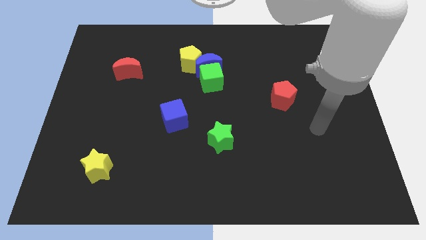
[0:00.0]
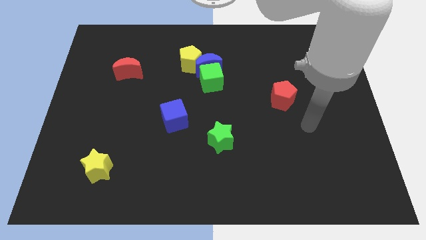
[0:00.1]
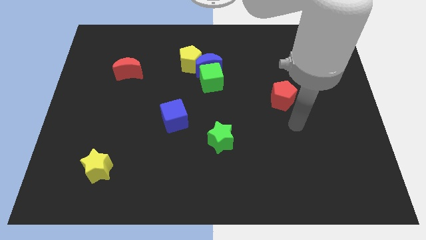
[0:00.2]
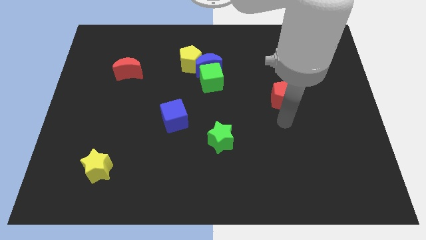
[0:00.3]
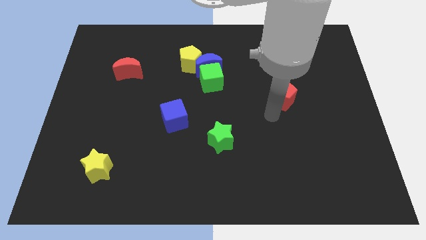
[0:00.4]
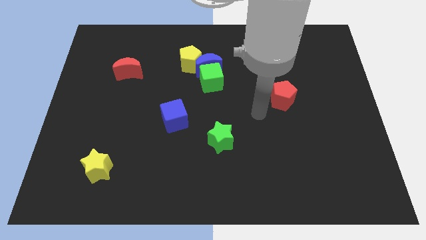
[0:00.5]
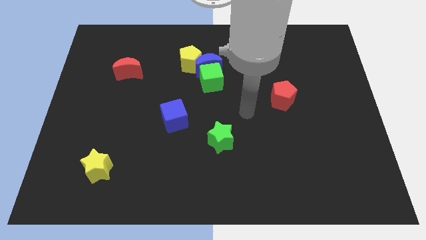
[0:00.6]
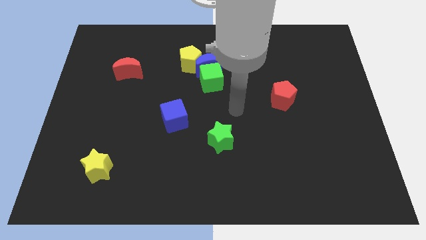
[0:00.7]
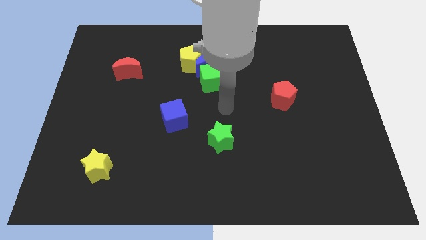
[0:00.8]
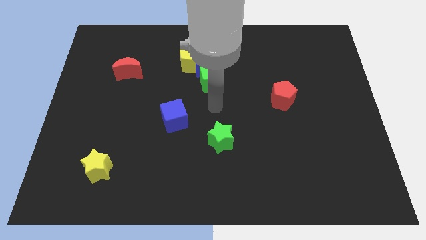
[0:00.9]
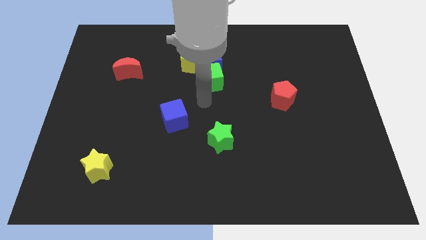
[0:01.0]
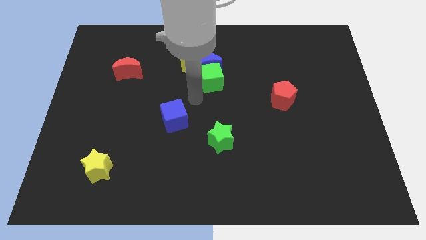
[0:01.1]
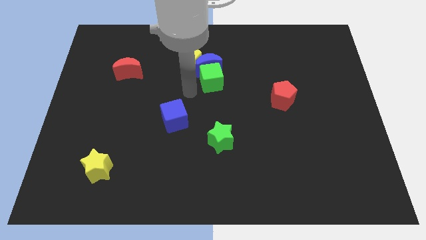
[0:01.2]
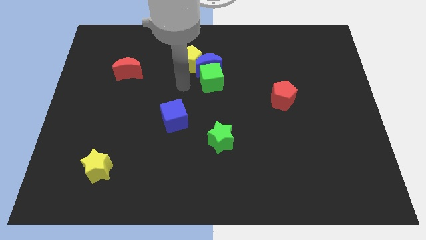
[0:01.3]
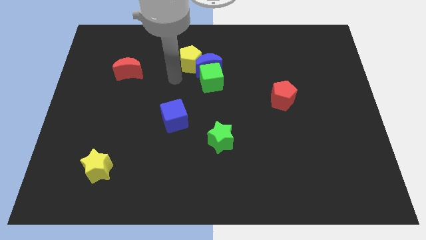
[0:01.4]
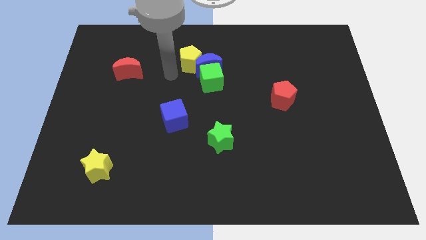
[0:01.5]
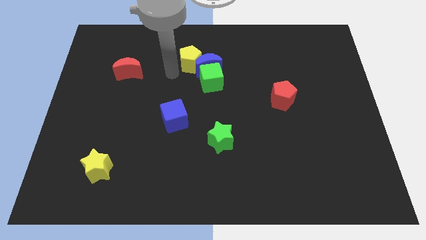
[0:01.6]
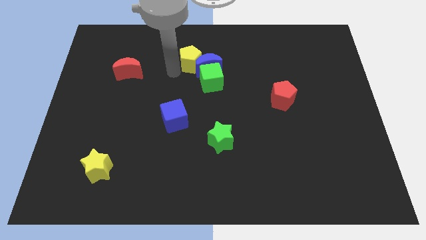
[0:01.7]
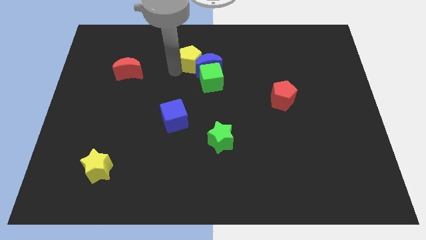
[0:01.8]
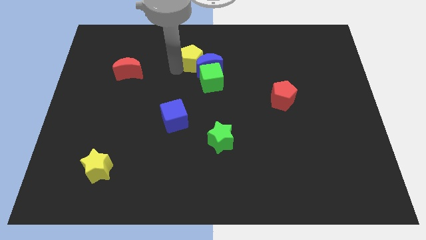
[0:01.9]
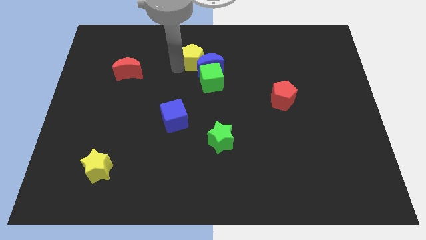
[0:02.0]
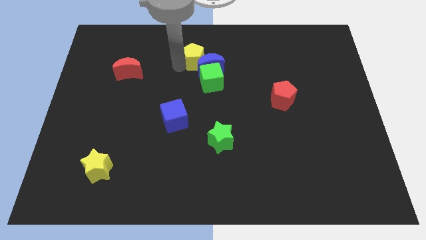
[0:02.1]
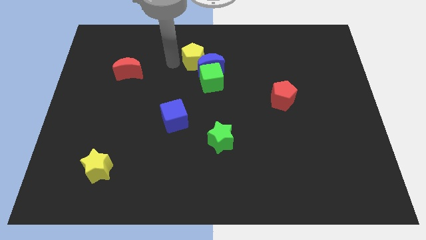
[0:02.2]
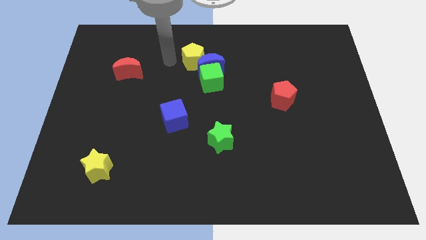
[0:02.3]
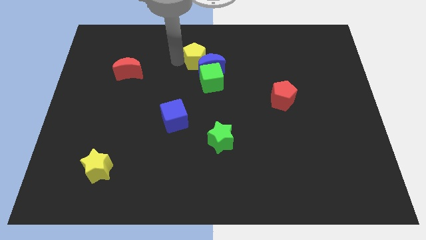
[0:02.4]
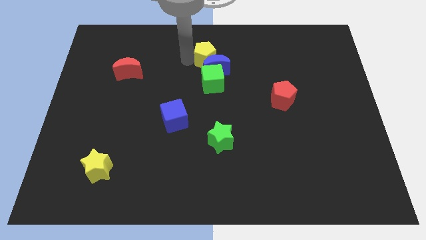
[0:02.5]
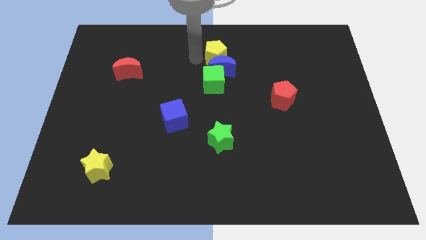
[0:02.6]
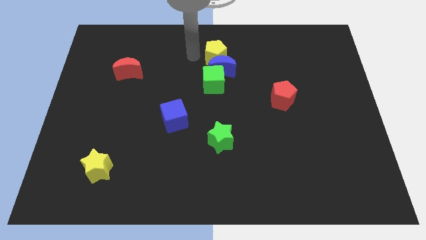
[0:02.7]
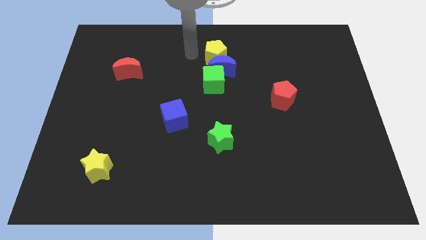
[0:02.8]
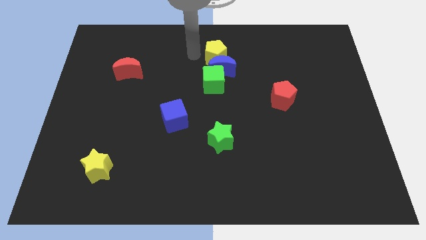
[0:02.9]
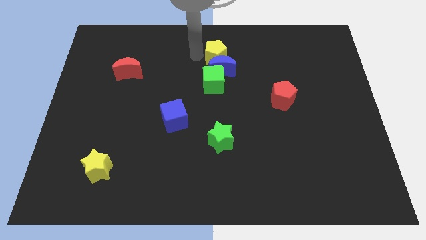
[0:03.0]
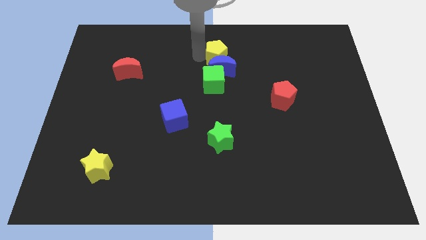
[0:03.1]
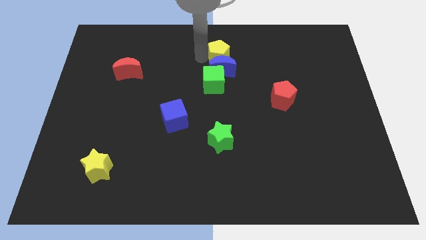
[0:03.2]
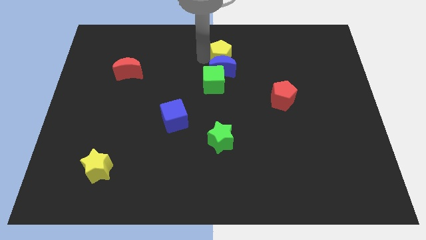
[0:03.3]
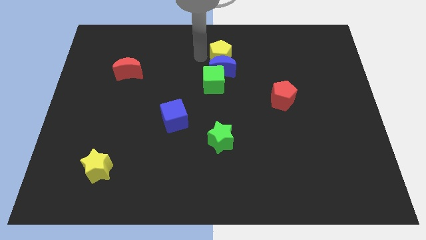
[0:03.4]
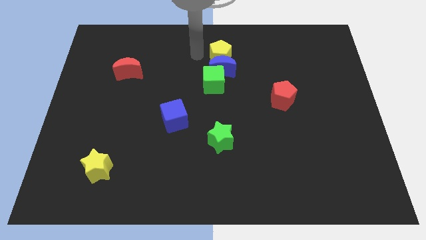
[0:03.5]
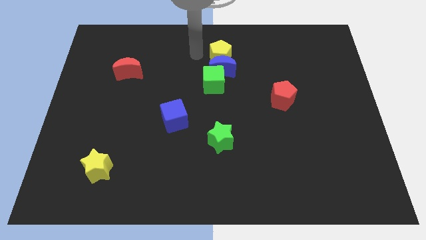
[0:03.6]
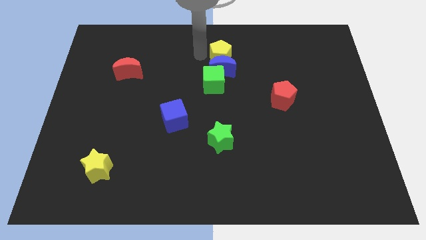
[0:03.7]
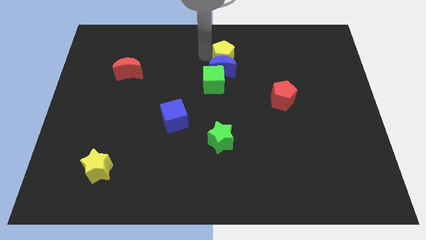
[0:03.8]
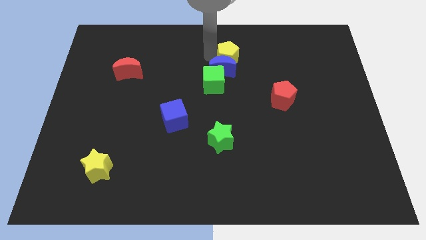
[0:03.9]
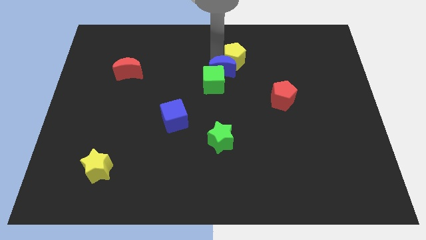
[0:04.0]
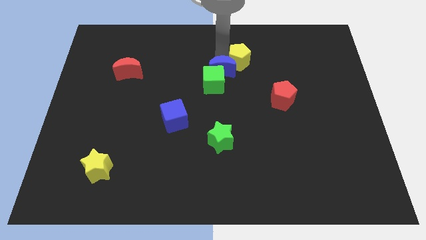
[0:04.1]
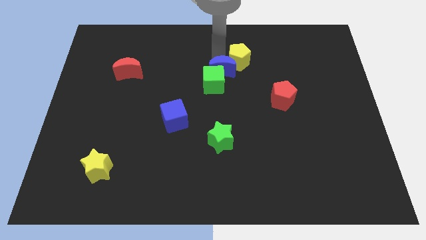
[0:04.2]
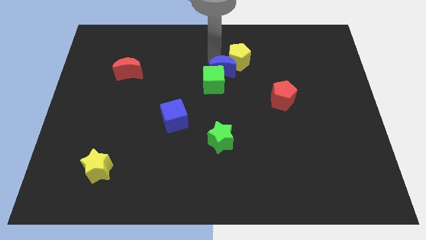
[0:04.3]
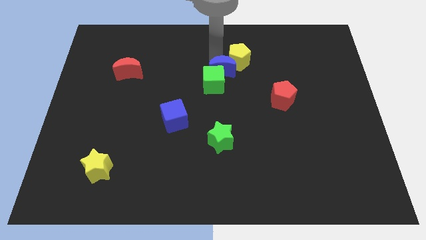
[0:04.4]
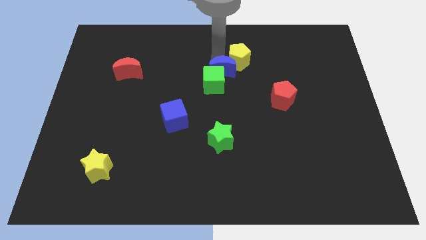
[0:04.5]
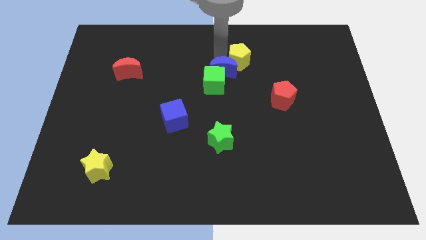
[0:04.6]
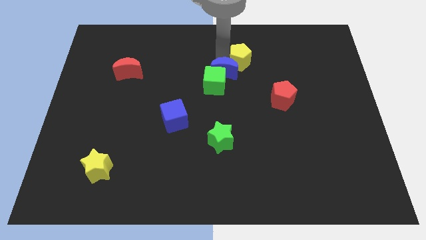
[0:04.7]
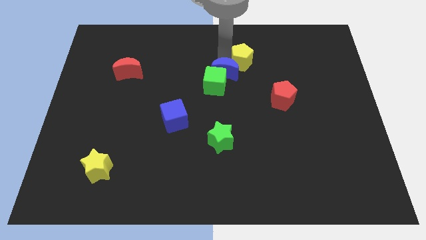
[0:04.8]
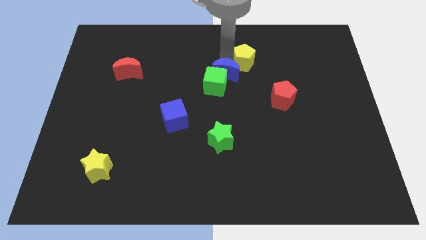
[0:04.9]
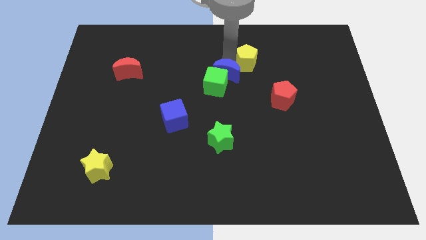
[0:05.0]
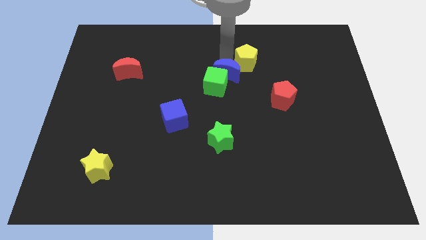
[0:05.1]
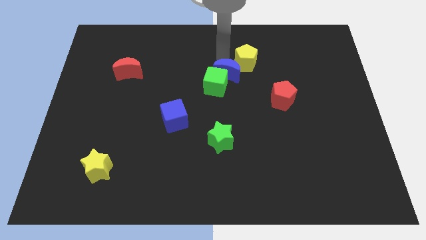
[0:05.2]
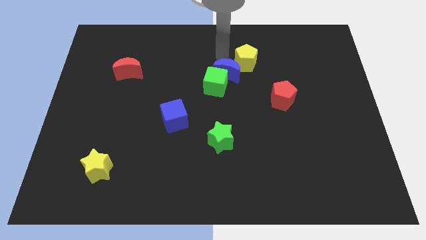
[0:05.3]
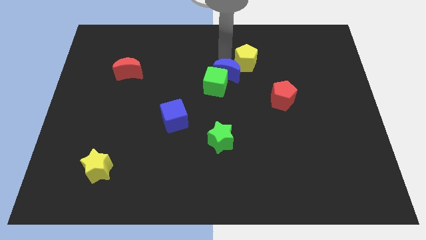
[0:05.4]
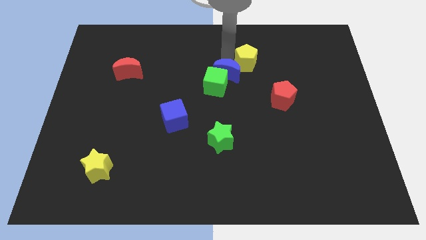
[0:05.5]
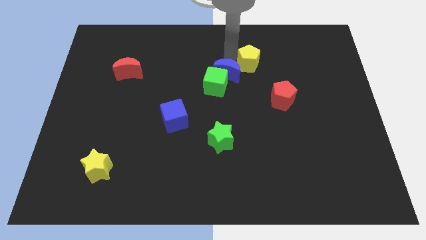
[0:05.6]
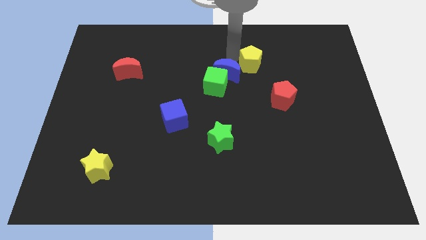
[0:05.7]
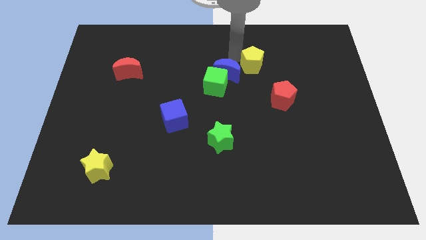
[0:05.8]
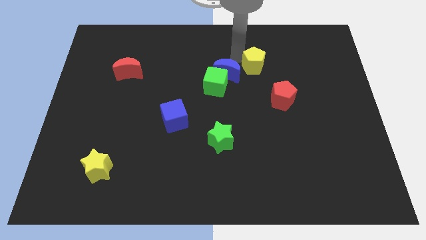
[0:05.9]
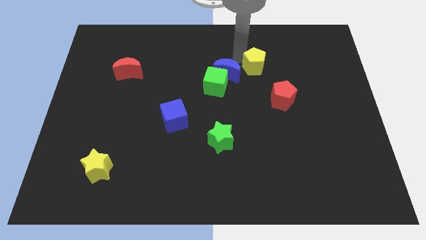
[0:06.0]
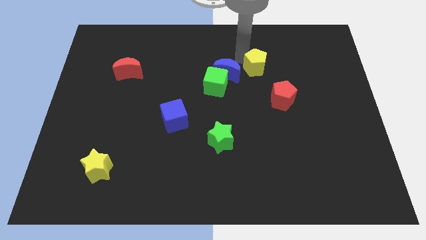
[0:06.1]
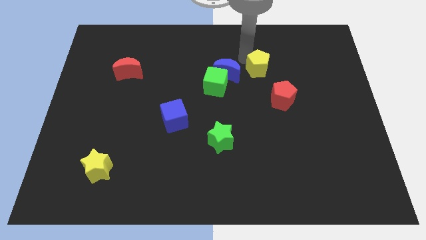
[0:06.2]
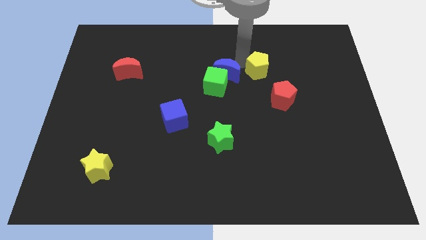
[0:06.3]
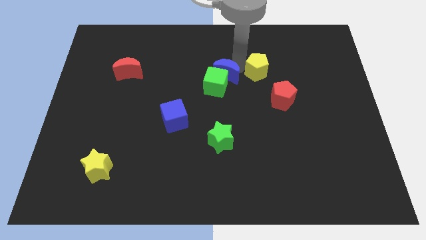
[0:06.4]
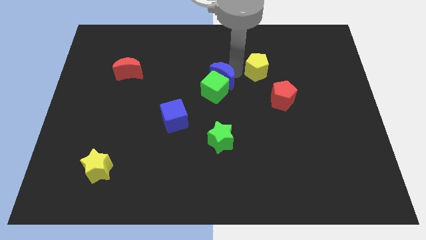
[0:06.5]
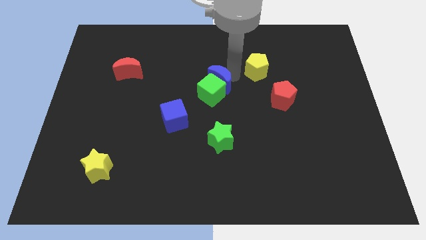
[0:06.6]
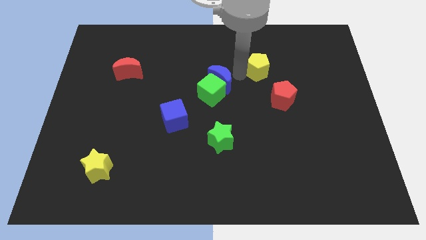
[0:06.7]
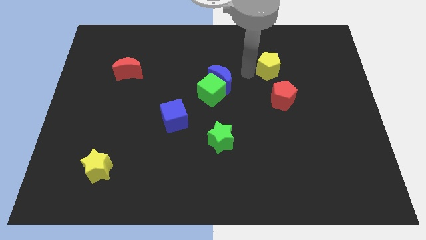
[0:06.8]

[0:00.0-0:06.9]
slide the yellow pentagon right

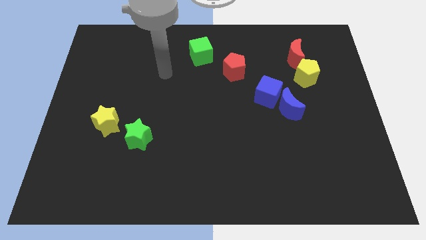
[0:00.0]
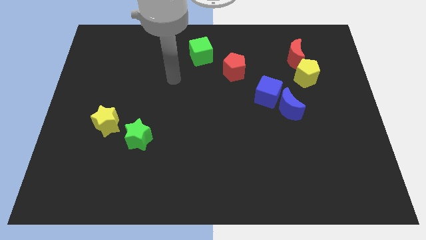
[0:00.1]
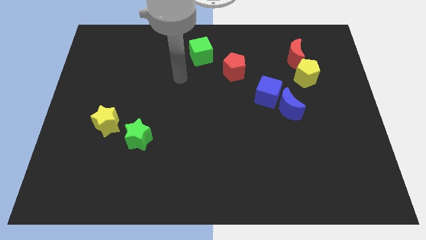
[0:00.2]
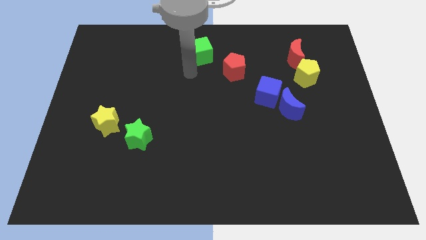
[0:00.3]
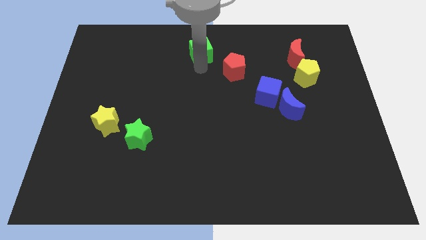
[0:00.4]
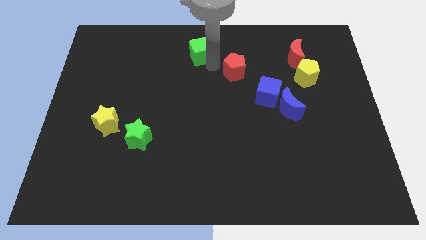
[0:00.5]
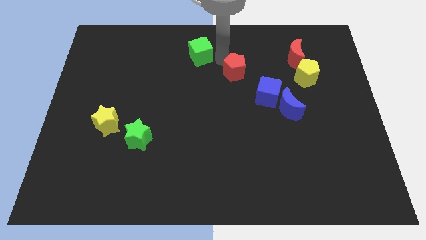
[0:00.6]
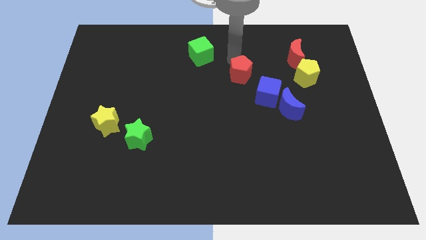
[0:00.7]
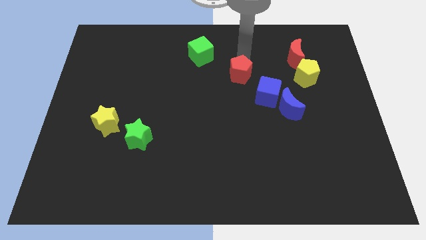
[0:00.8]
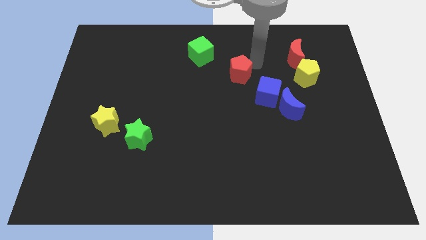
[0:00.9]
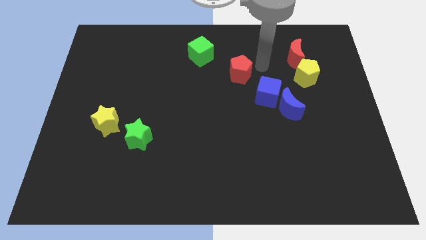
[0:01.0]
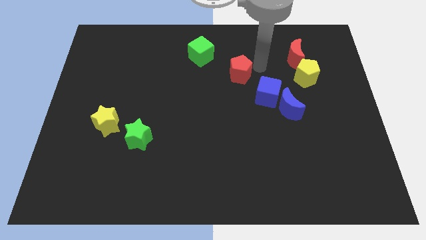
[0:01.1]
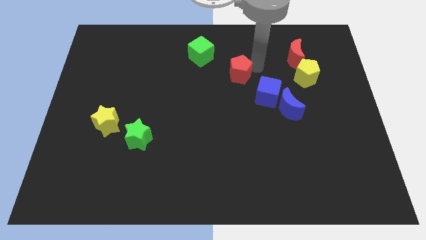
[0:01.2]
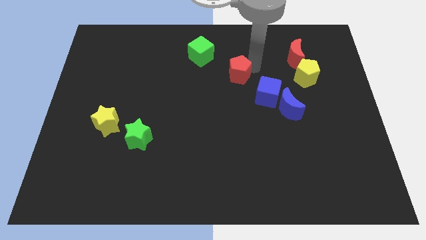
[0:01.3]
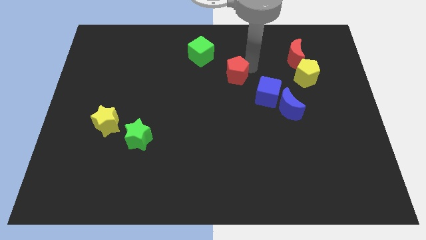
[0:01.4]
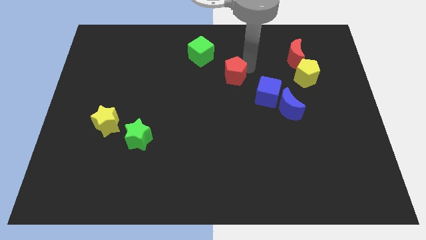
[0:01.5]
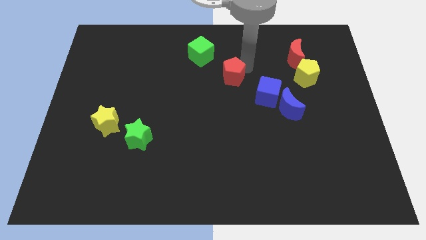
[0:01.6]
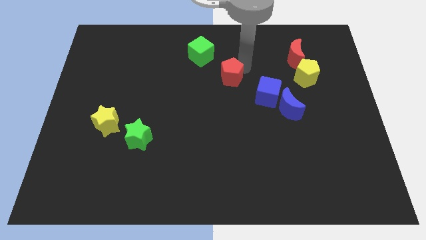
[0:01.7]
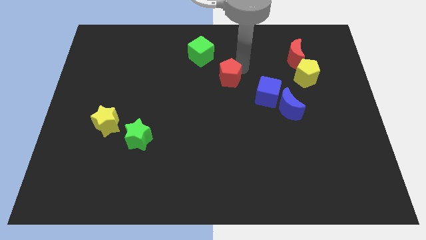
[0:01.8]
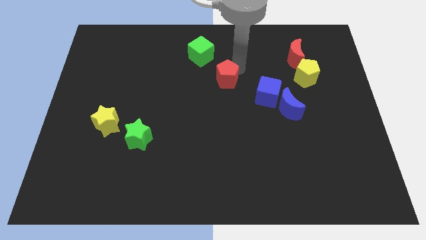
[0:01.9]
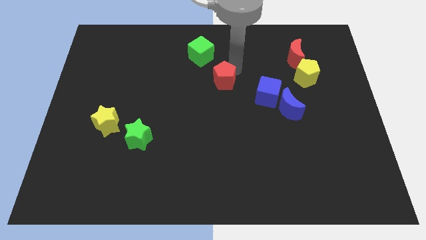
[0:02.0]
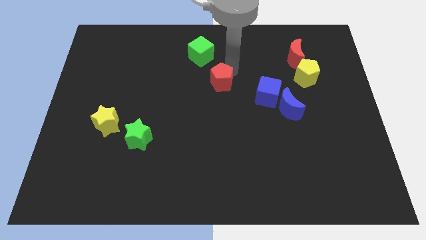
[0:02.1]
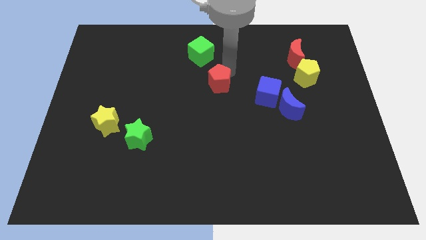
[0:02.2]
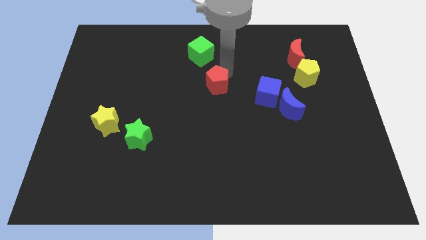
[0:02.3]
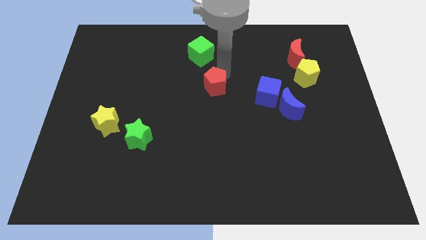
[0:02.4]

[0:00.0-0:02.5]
slightly slide the red pentagon downwards and left
